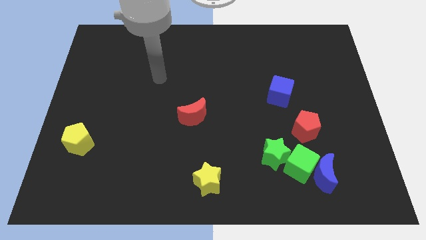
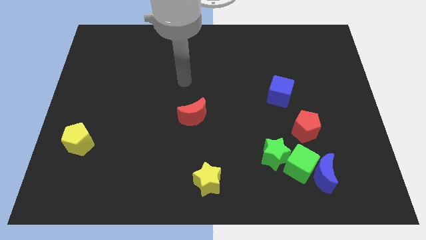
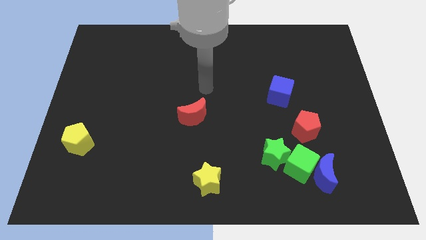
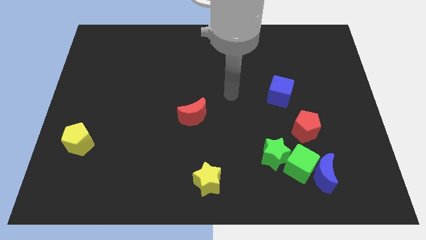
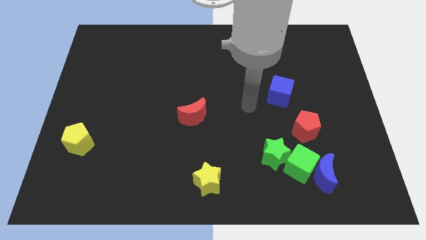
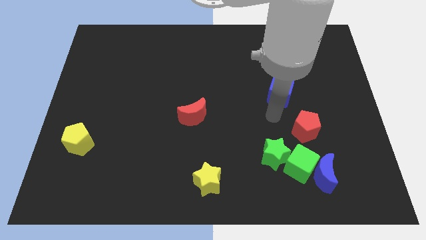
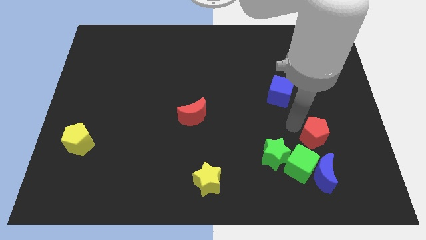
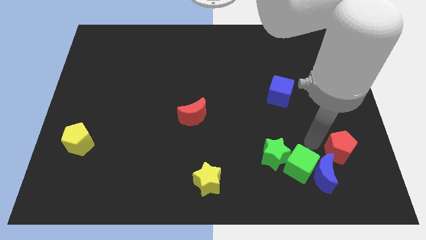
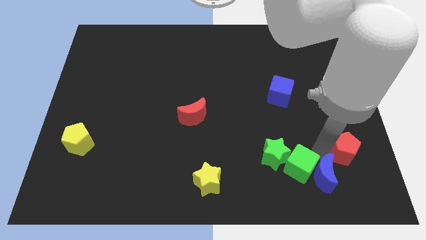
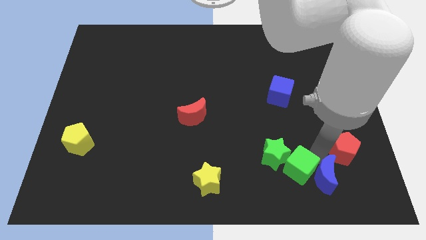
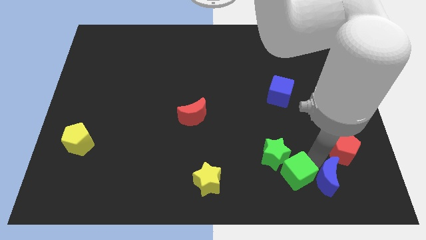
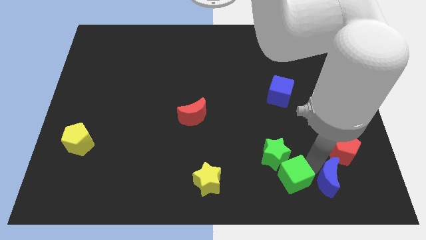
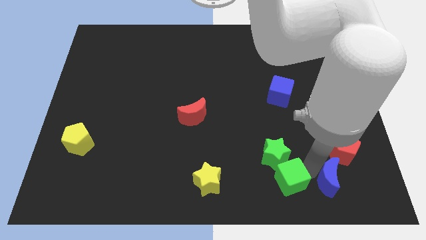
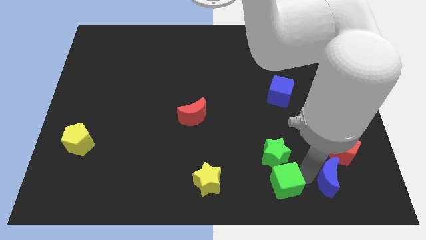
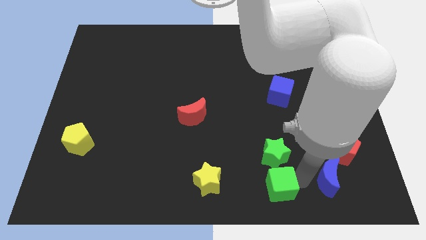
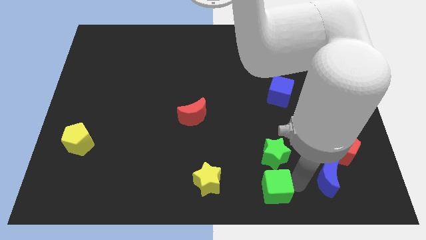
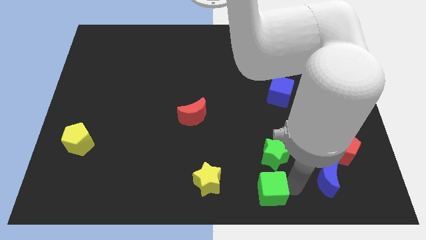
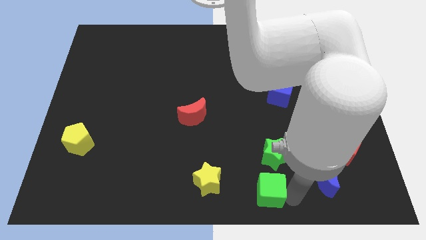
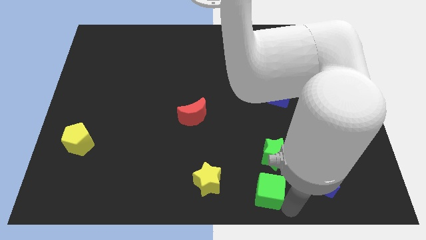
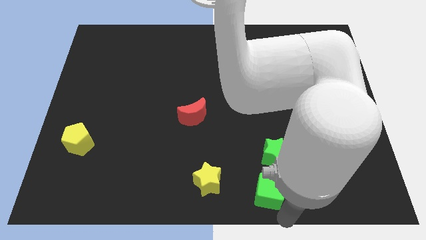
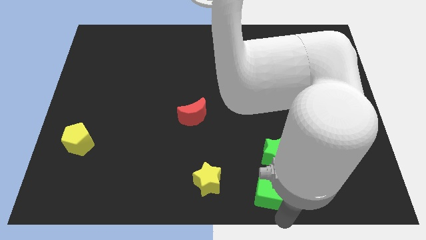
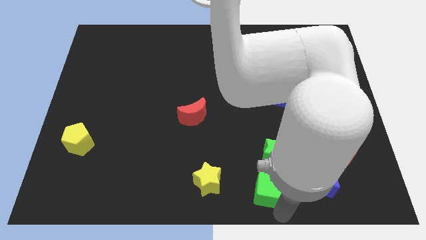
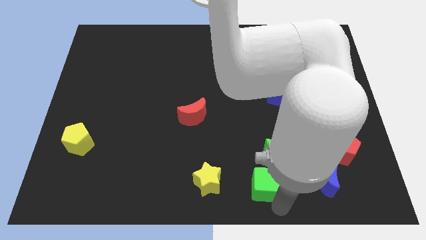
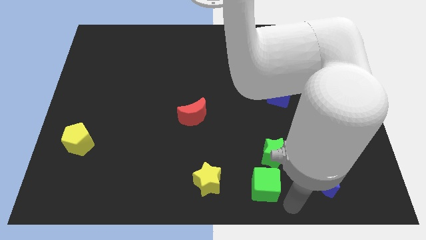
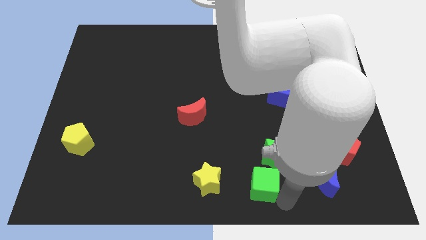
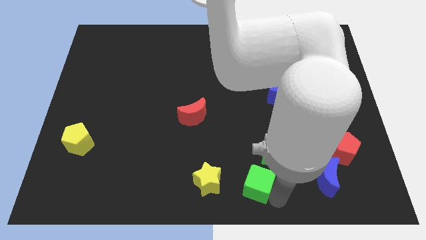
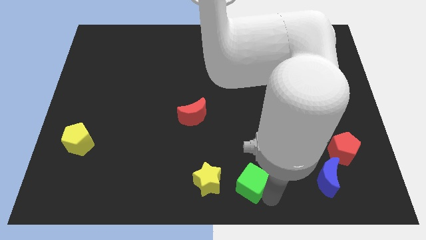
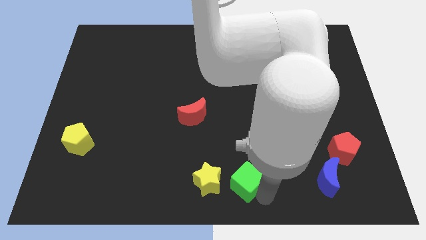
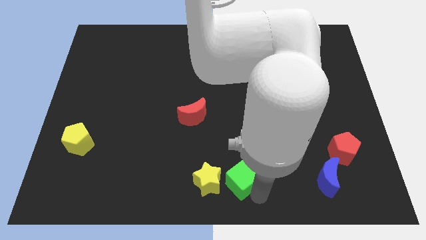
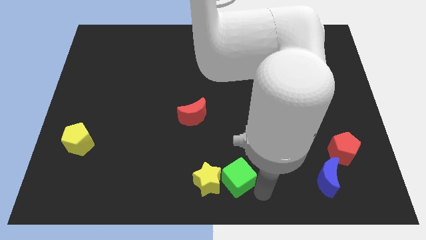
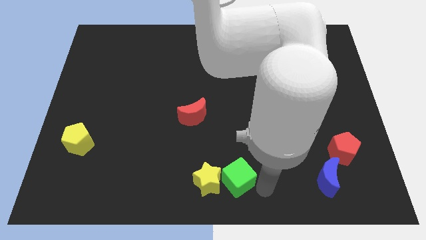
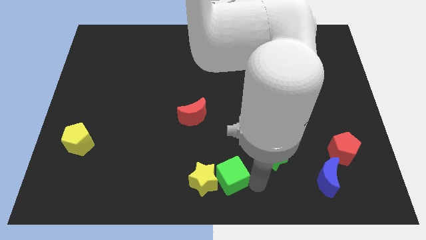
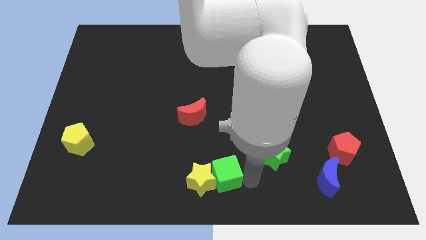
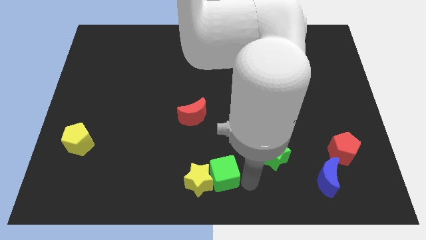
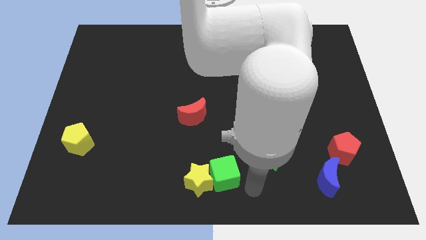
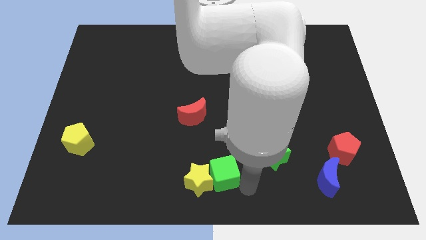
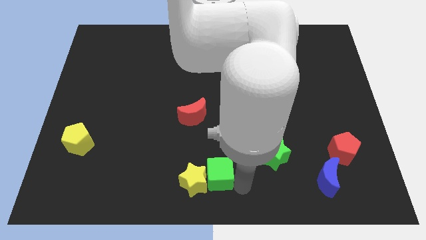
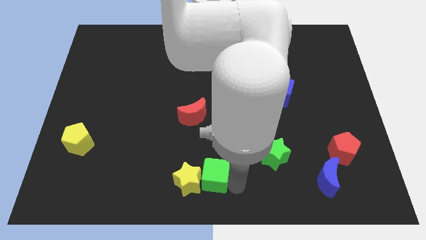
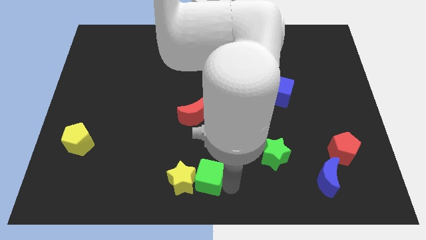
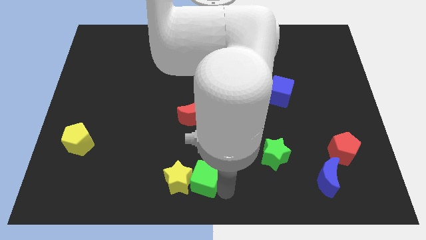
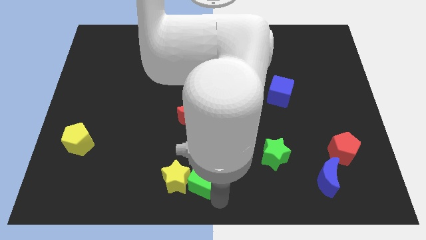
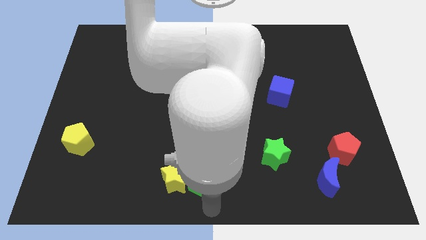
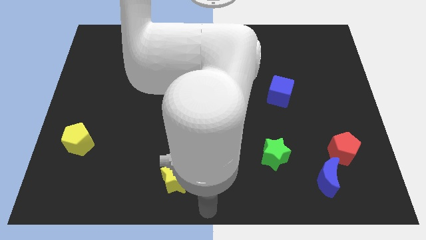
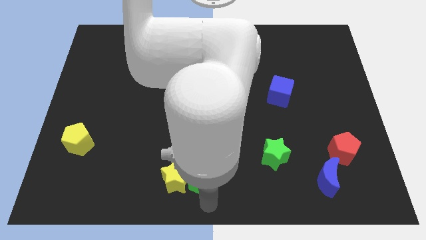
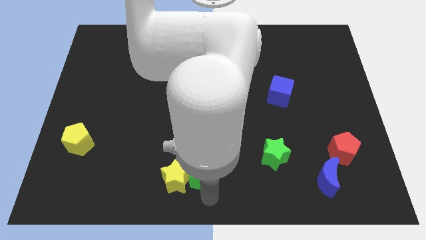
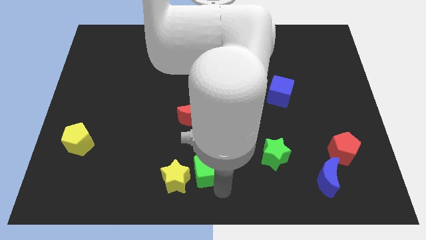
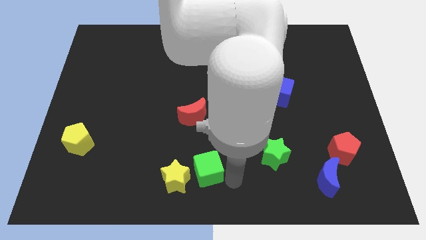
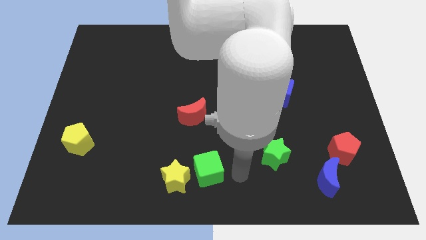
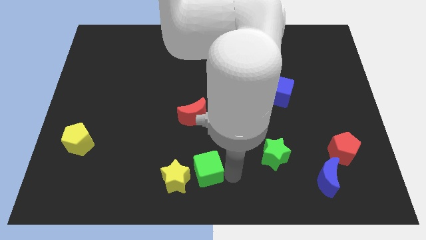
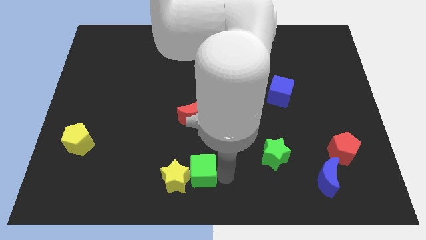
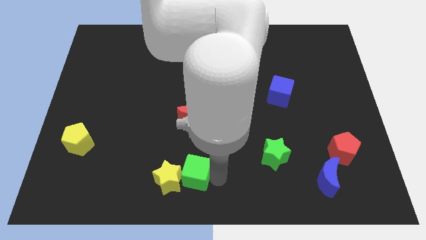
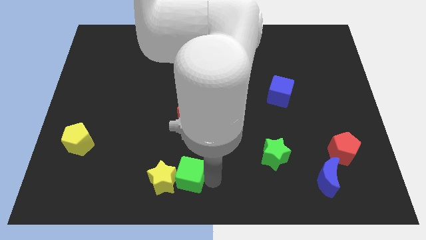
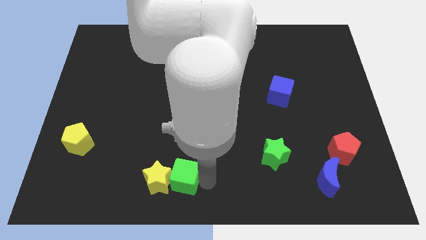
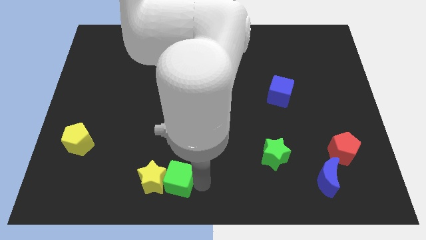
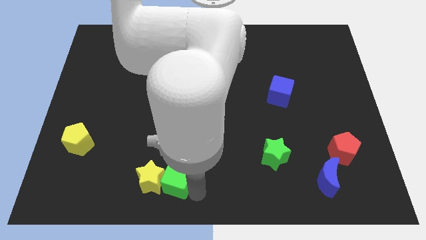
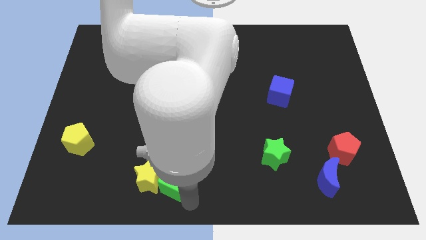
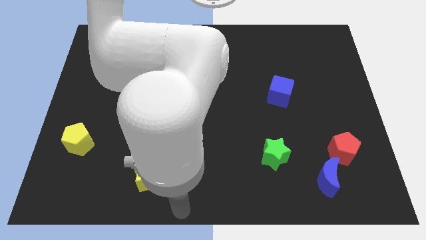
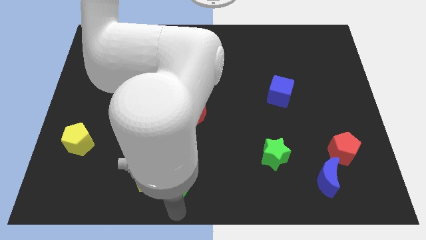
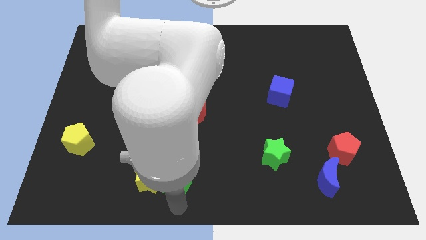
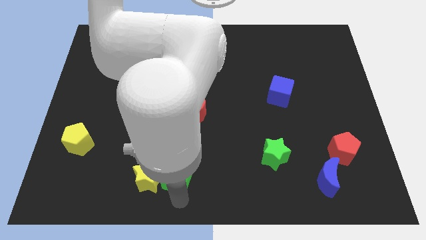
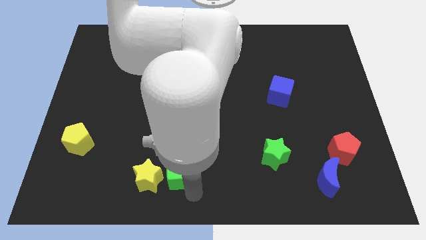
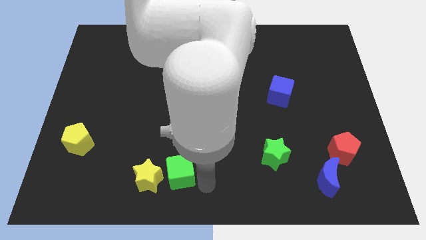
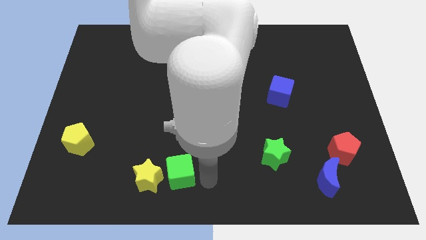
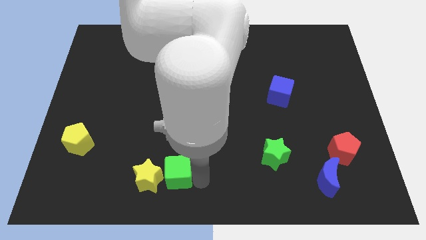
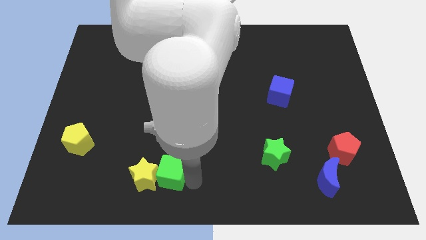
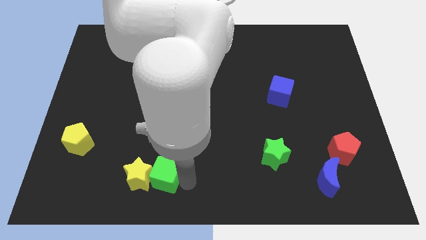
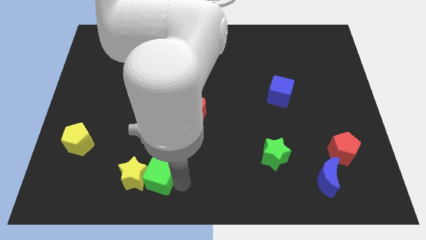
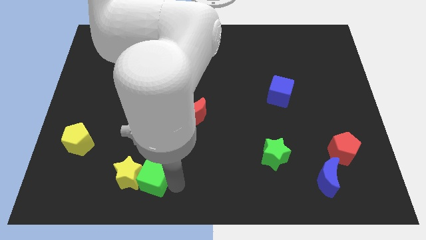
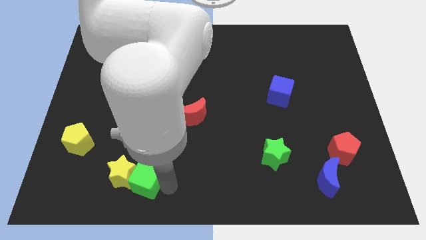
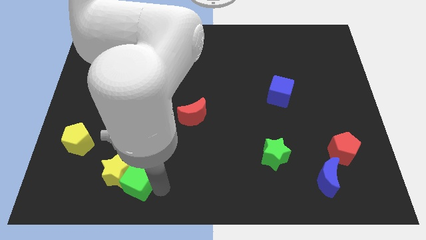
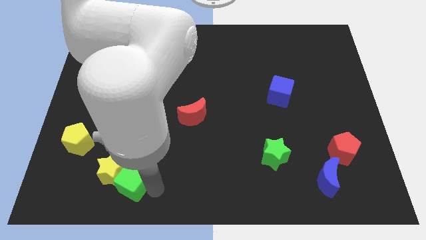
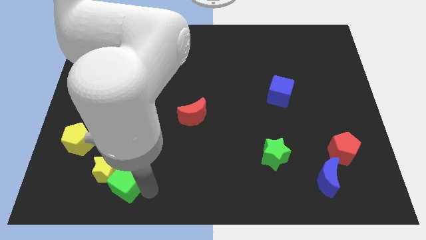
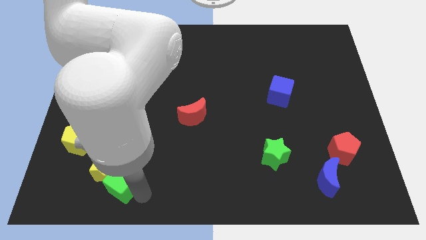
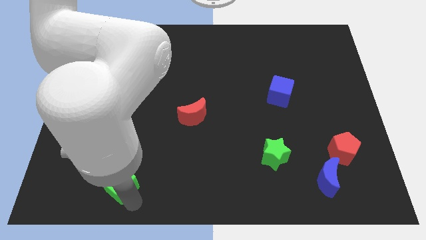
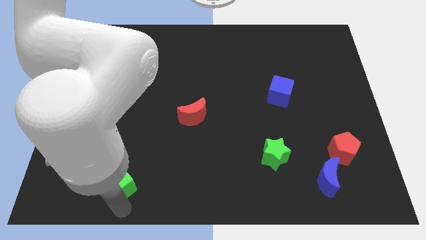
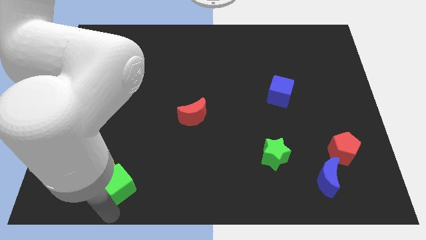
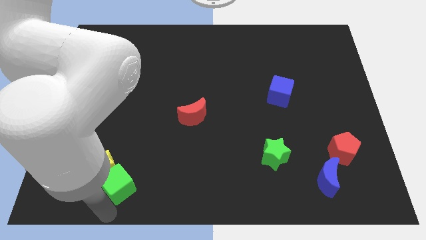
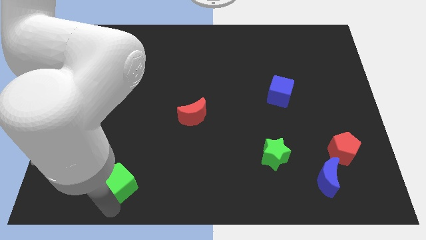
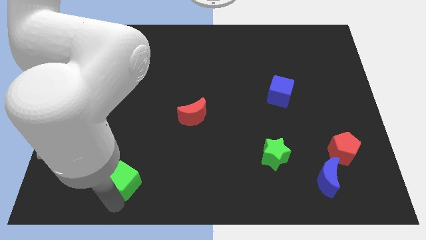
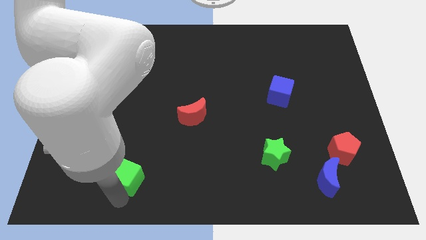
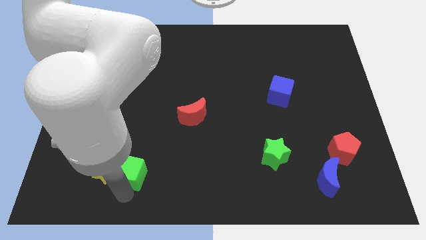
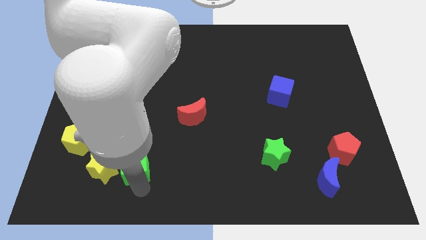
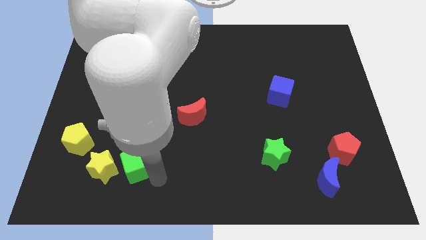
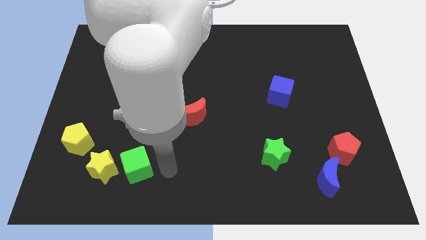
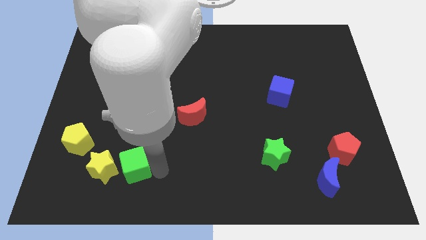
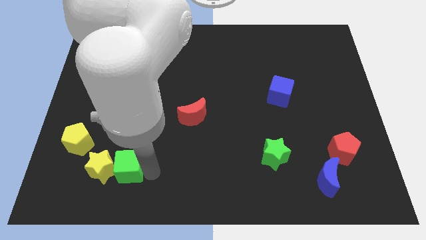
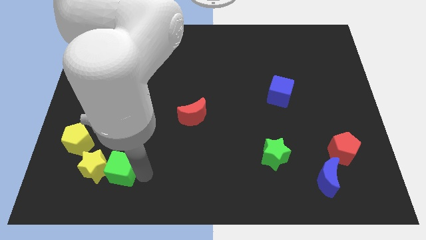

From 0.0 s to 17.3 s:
move the green cube to the bottom right of the yellow pentagon
